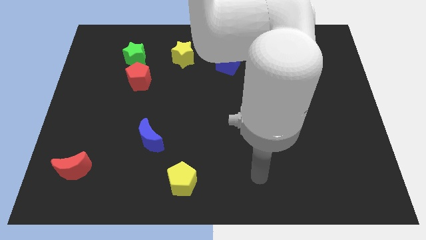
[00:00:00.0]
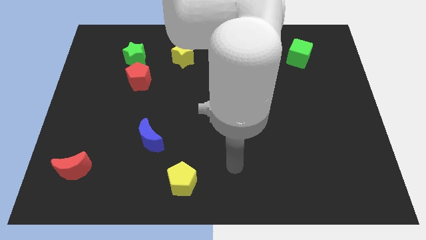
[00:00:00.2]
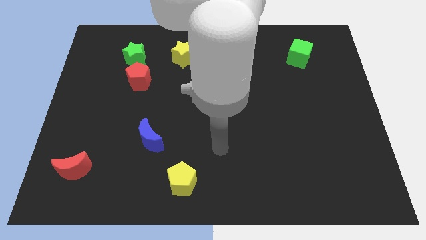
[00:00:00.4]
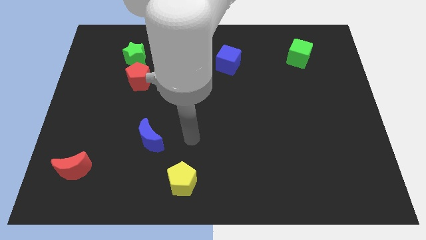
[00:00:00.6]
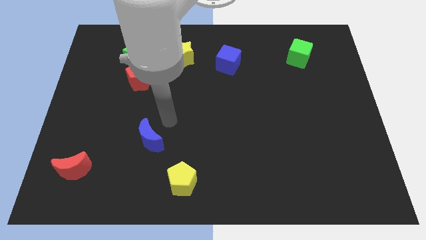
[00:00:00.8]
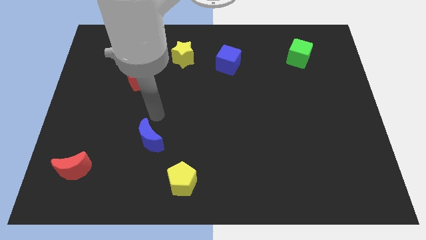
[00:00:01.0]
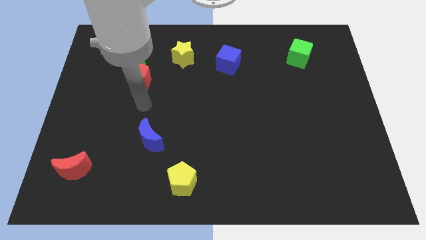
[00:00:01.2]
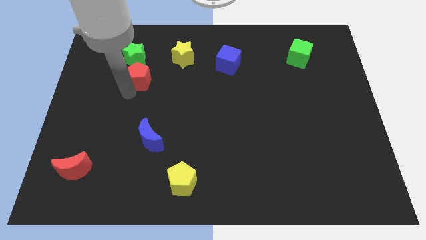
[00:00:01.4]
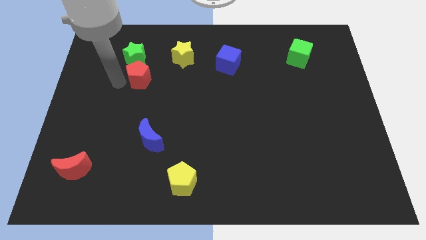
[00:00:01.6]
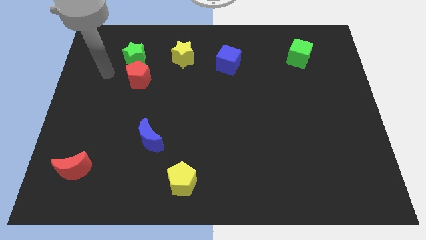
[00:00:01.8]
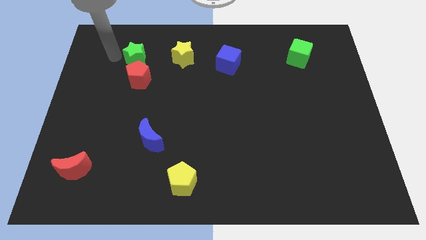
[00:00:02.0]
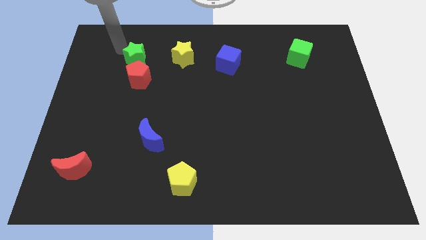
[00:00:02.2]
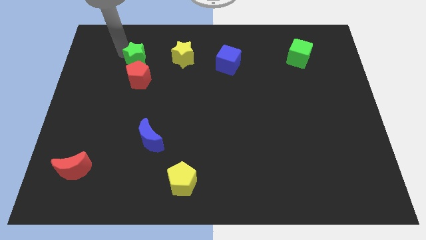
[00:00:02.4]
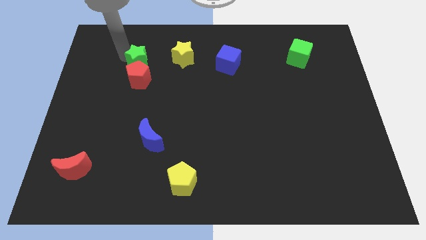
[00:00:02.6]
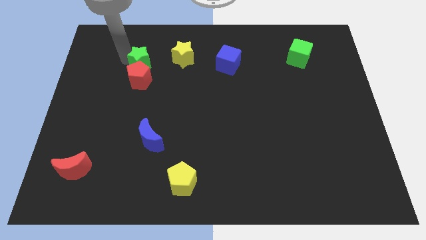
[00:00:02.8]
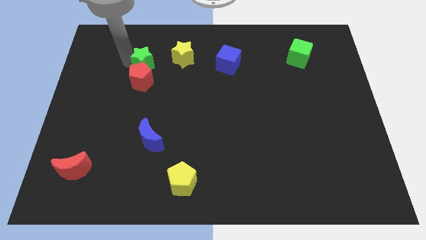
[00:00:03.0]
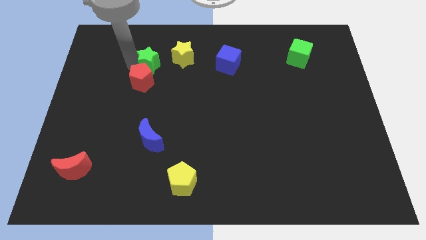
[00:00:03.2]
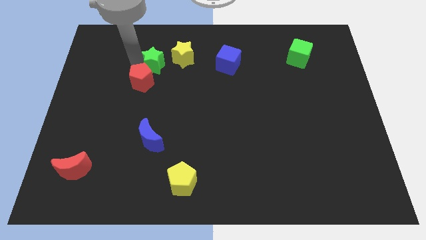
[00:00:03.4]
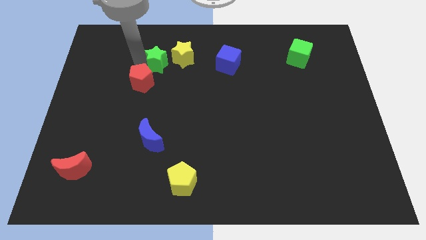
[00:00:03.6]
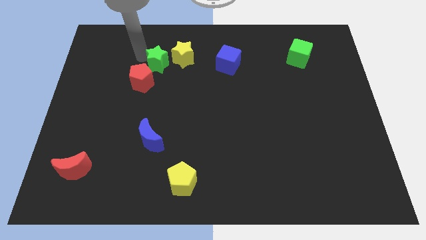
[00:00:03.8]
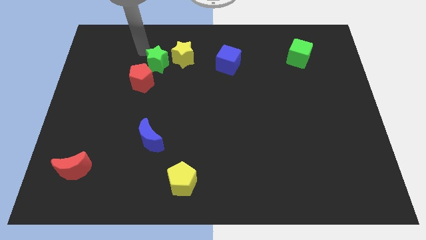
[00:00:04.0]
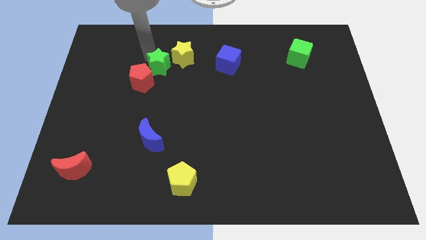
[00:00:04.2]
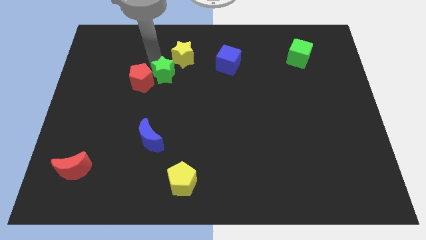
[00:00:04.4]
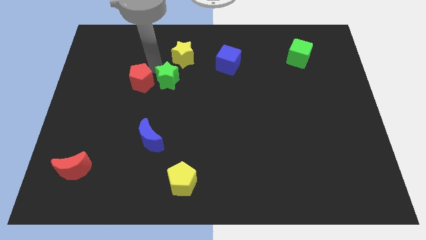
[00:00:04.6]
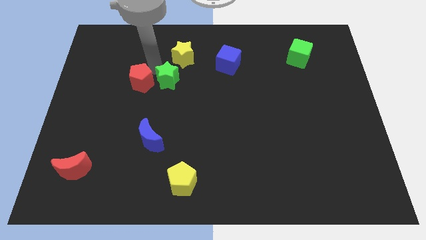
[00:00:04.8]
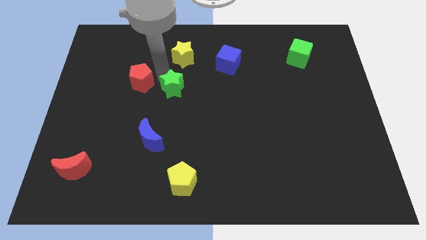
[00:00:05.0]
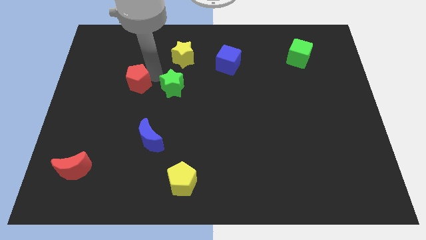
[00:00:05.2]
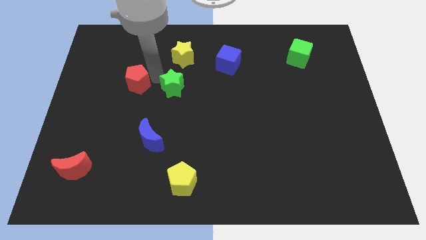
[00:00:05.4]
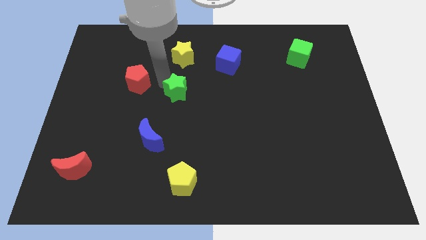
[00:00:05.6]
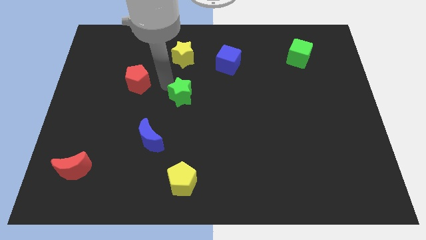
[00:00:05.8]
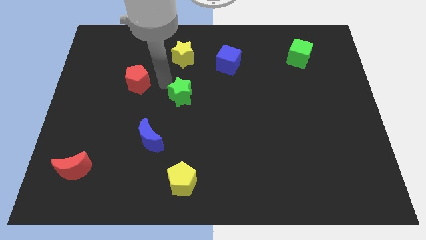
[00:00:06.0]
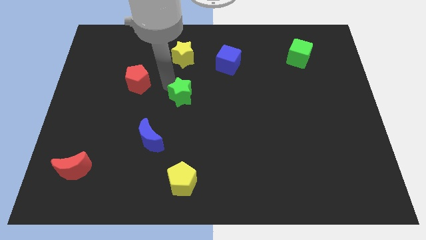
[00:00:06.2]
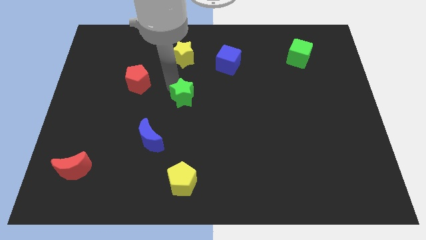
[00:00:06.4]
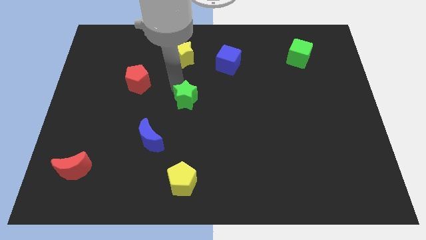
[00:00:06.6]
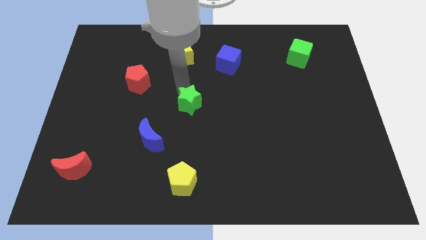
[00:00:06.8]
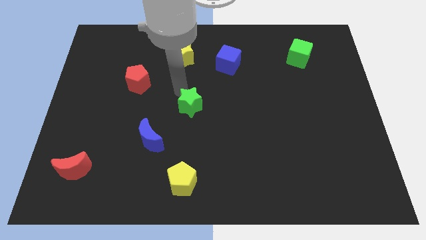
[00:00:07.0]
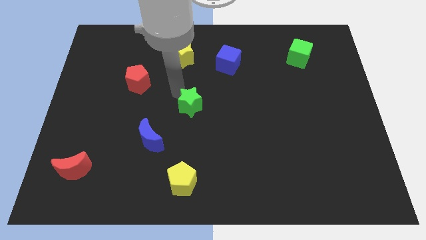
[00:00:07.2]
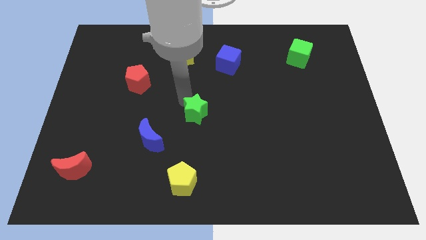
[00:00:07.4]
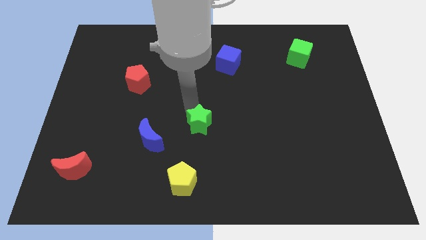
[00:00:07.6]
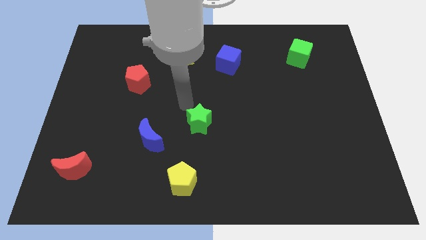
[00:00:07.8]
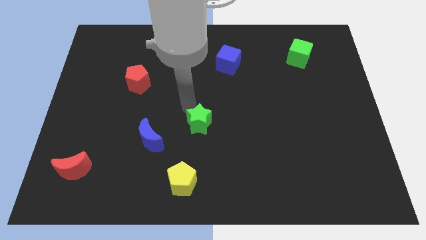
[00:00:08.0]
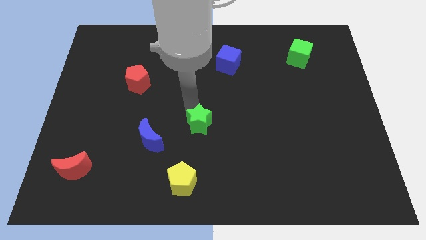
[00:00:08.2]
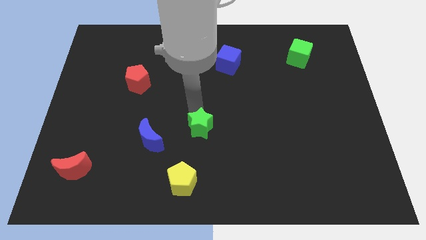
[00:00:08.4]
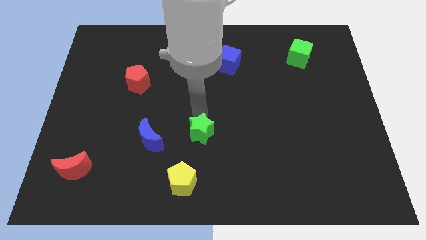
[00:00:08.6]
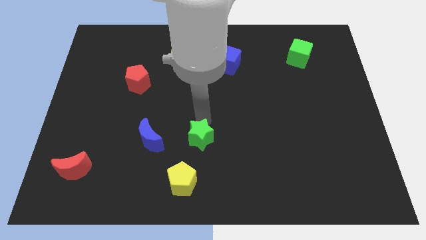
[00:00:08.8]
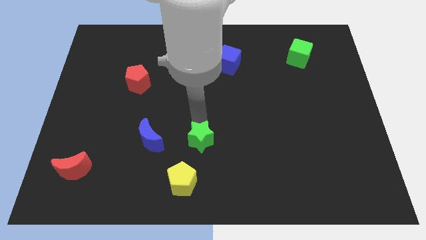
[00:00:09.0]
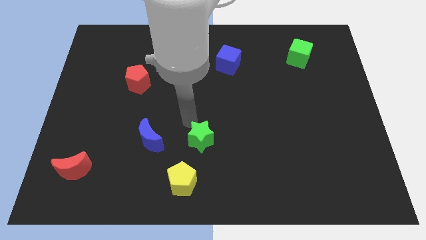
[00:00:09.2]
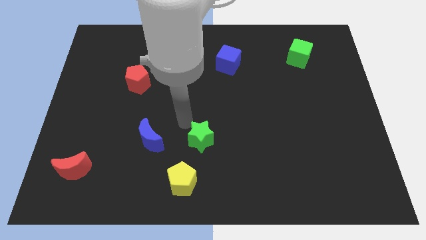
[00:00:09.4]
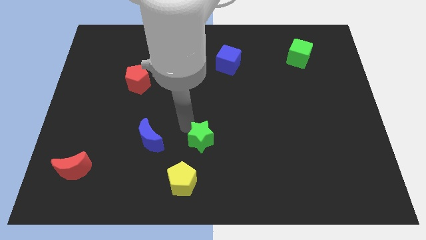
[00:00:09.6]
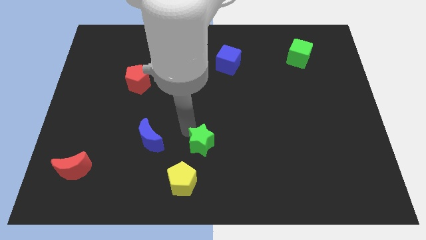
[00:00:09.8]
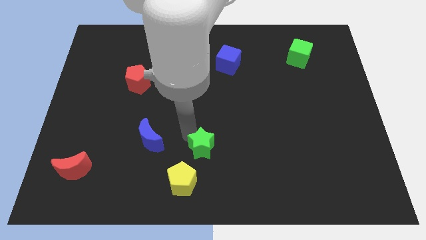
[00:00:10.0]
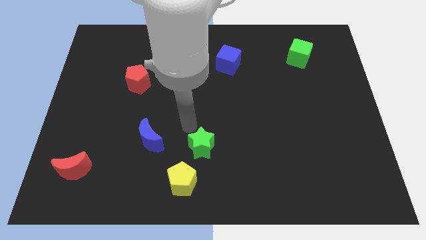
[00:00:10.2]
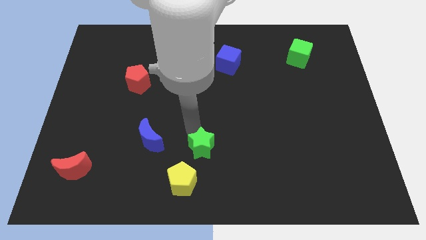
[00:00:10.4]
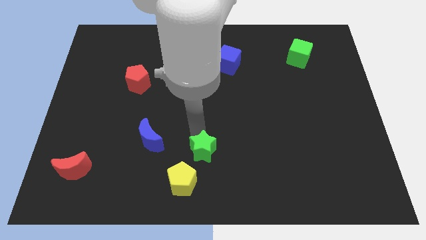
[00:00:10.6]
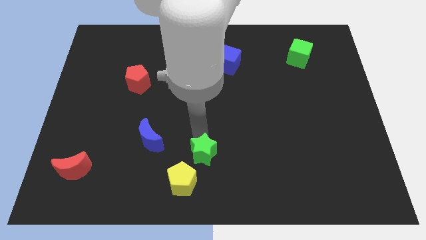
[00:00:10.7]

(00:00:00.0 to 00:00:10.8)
slide the green star to the bottom
